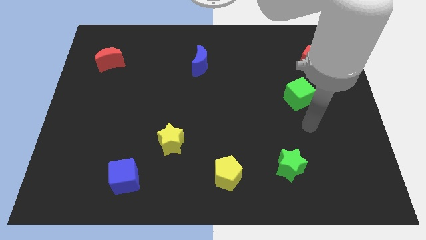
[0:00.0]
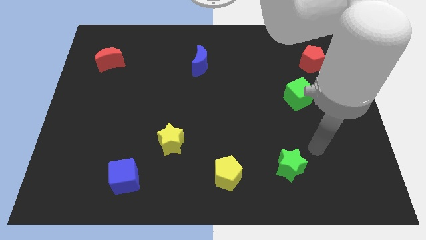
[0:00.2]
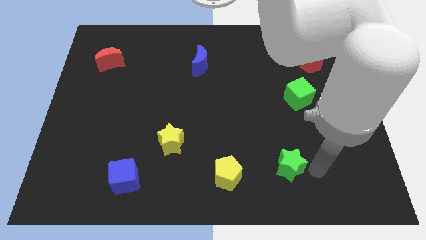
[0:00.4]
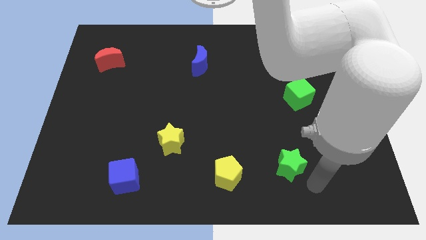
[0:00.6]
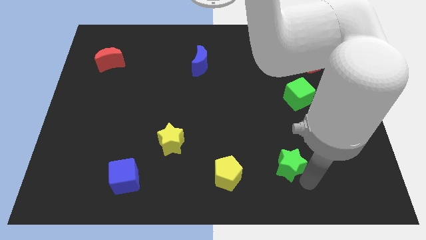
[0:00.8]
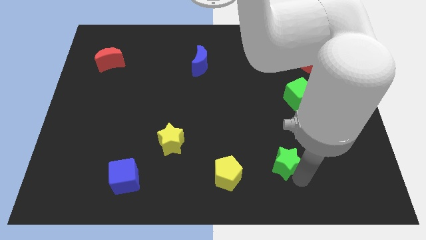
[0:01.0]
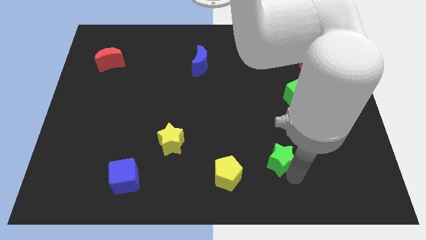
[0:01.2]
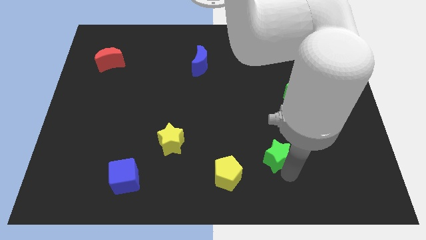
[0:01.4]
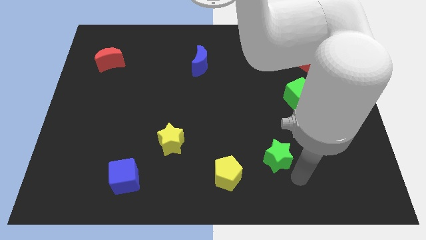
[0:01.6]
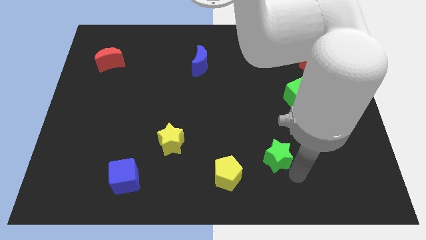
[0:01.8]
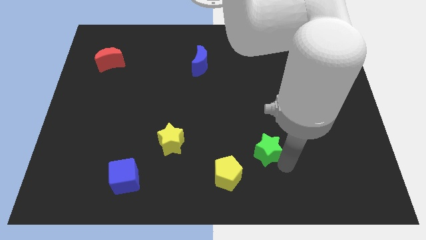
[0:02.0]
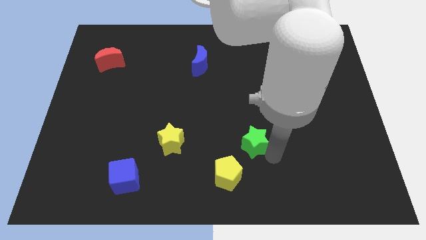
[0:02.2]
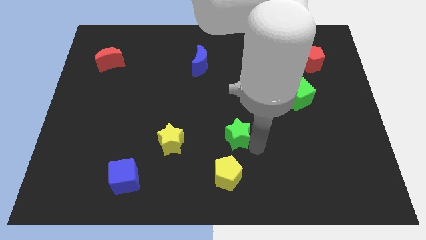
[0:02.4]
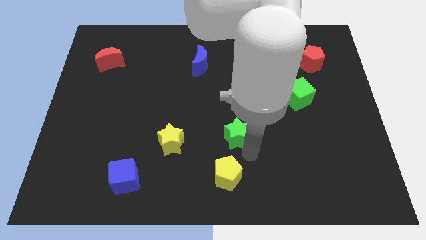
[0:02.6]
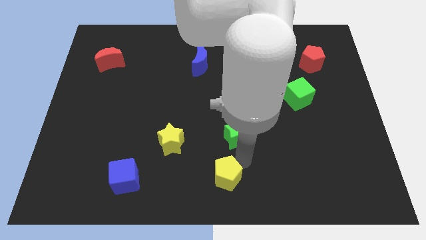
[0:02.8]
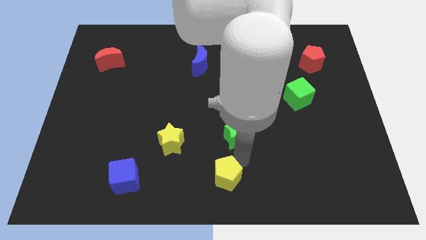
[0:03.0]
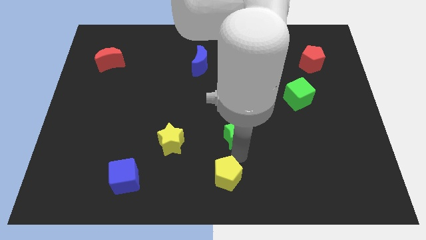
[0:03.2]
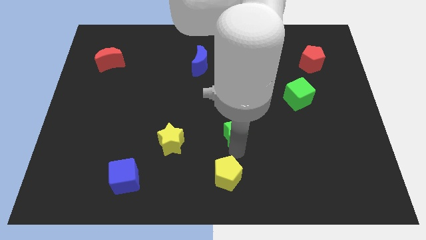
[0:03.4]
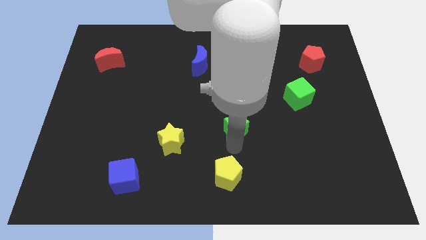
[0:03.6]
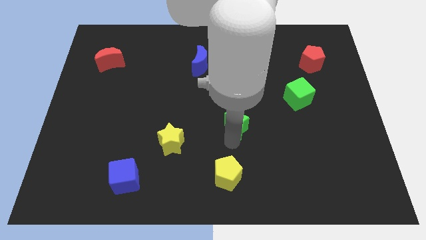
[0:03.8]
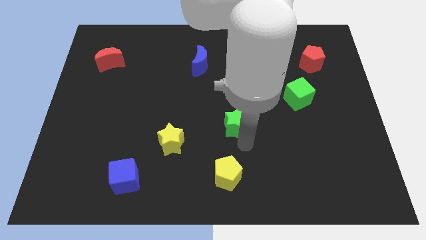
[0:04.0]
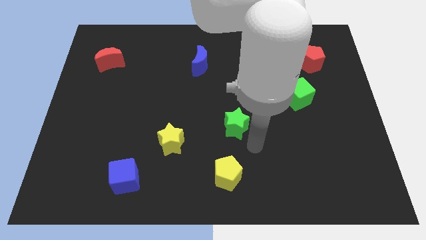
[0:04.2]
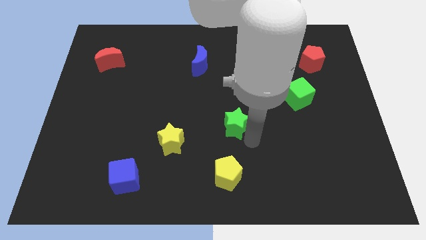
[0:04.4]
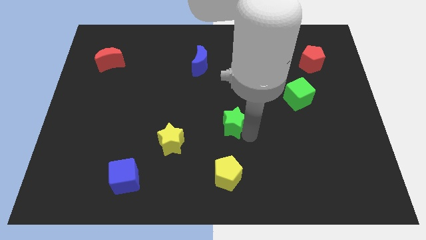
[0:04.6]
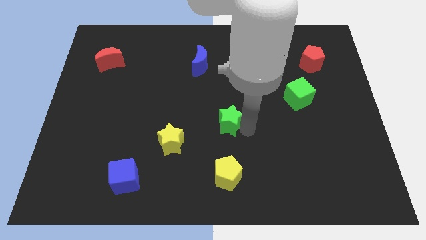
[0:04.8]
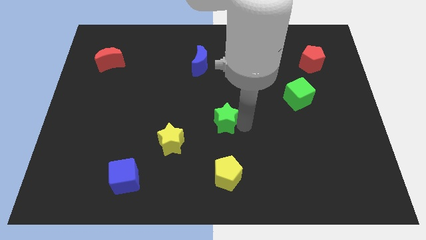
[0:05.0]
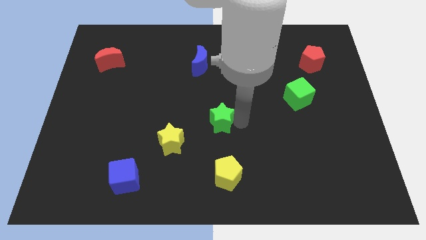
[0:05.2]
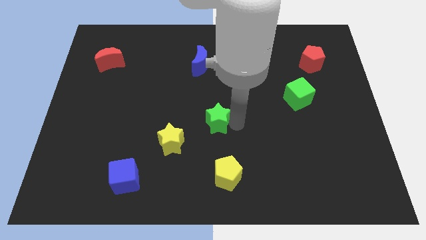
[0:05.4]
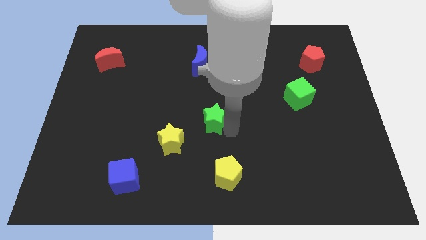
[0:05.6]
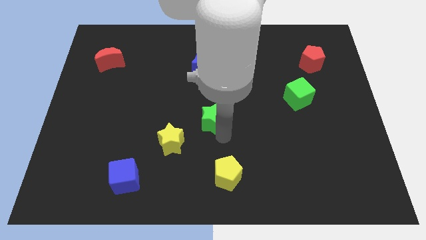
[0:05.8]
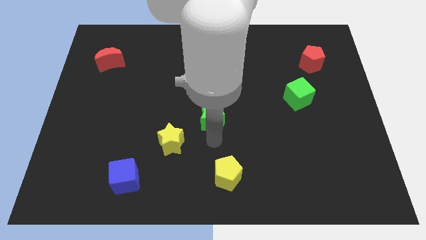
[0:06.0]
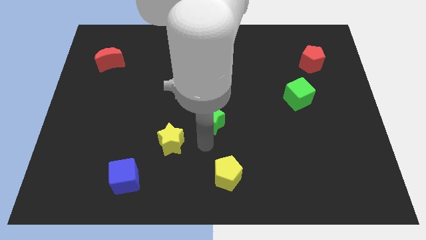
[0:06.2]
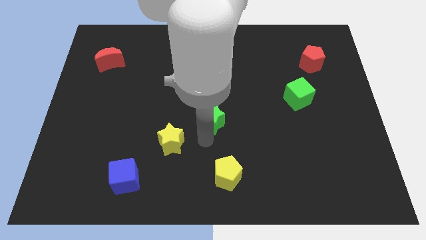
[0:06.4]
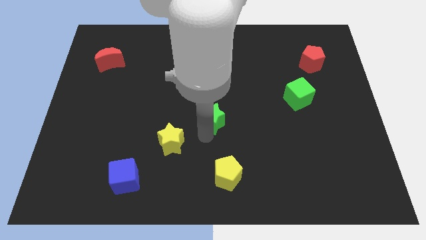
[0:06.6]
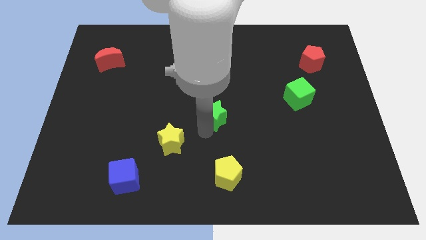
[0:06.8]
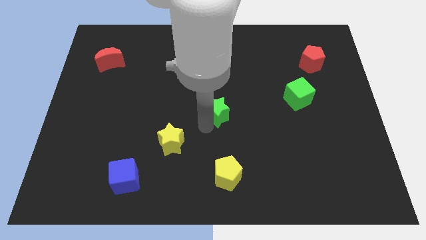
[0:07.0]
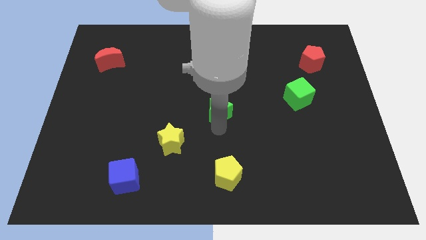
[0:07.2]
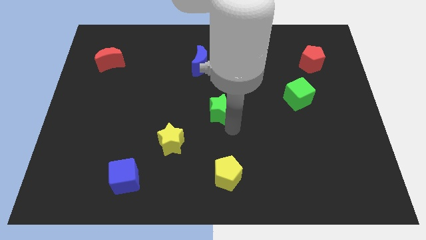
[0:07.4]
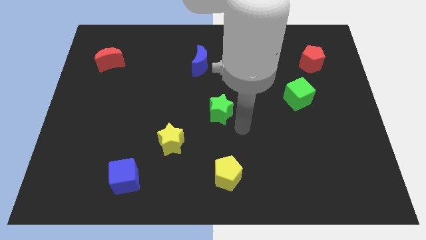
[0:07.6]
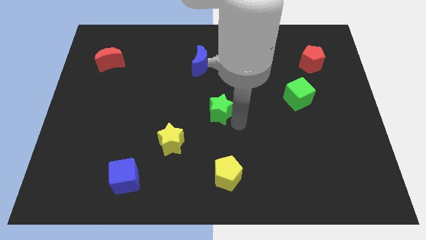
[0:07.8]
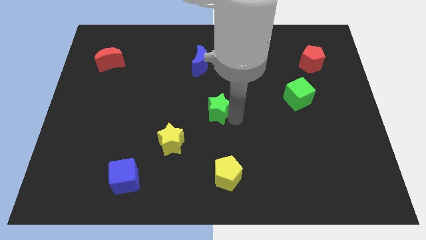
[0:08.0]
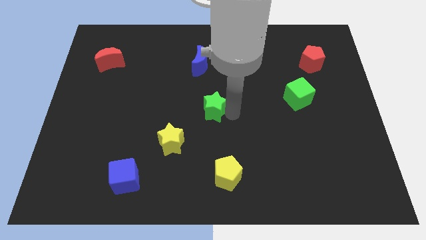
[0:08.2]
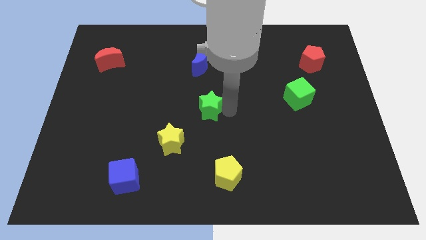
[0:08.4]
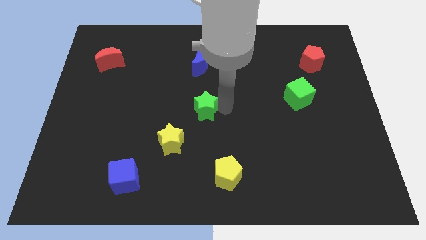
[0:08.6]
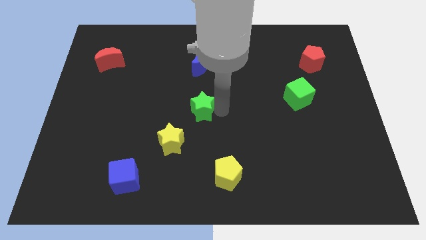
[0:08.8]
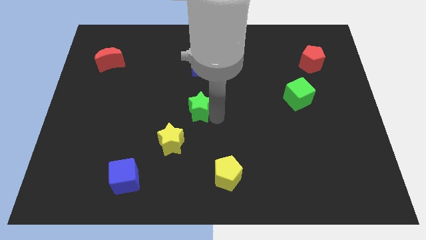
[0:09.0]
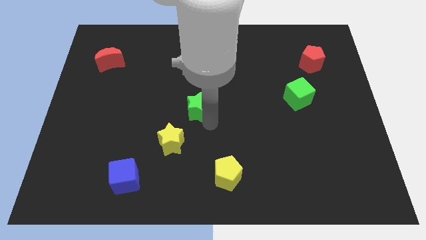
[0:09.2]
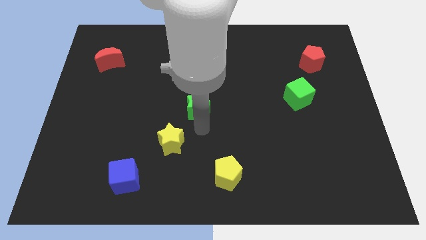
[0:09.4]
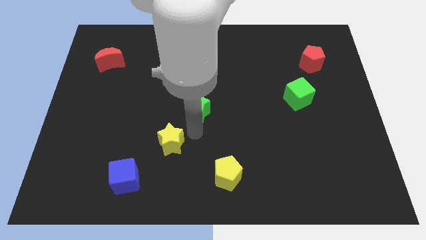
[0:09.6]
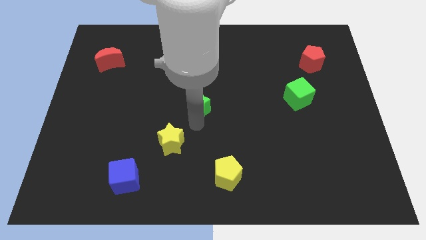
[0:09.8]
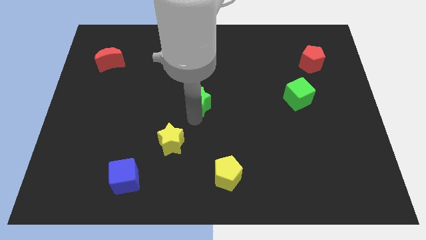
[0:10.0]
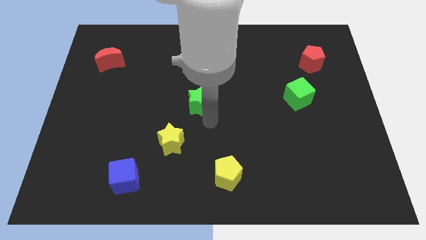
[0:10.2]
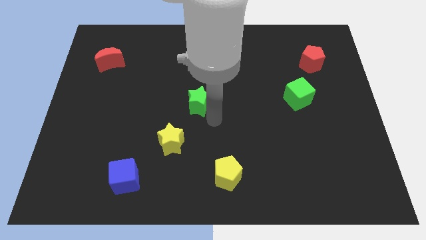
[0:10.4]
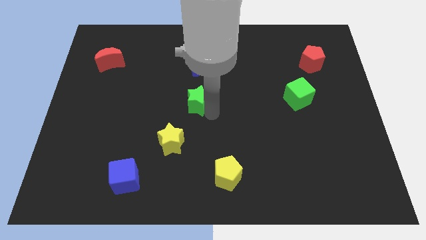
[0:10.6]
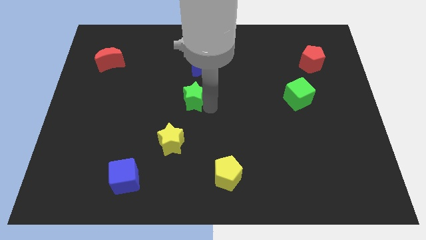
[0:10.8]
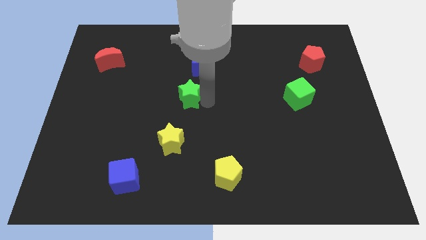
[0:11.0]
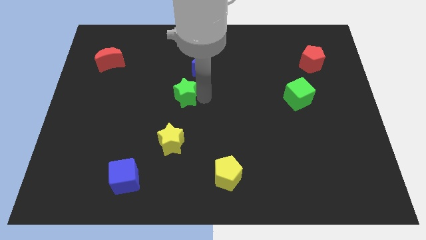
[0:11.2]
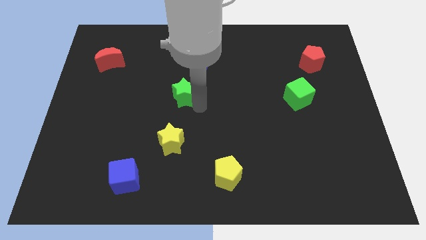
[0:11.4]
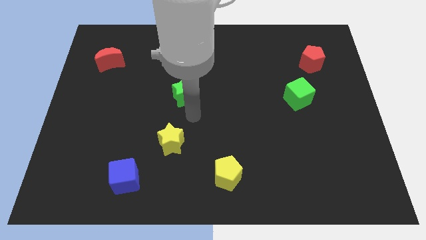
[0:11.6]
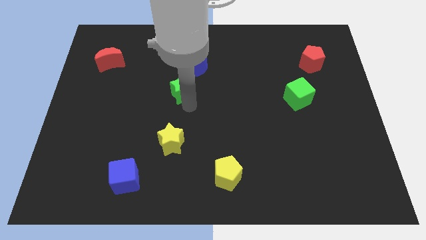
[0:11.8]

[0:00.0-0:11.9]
push the green star diagonally down and to the left of the blue moon

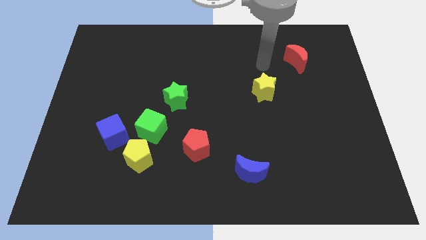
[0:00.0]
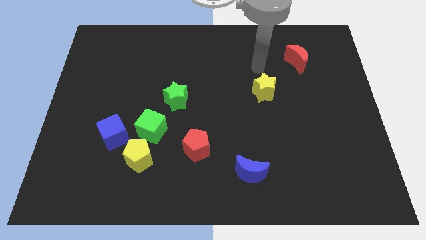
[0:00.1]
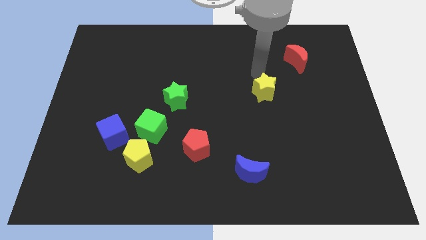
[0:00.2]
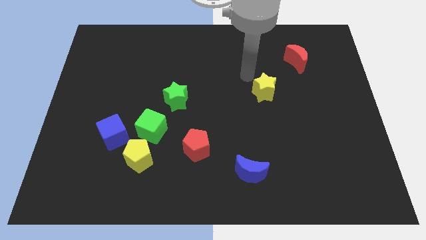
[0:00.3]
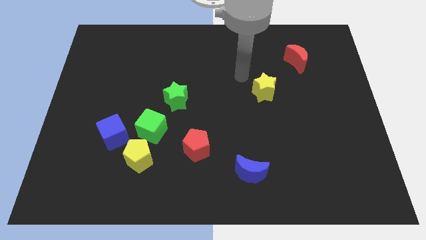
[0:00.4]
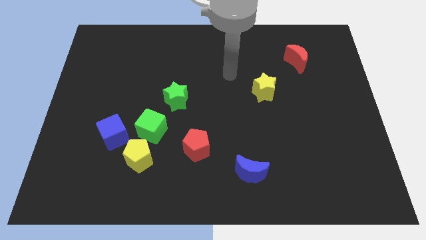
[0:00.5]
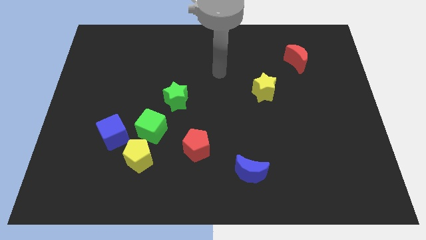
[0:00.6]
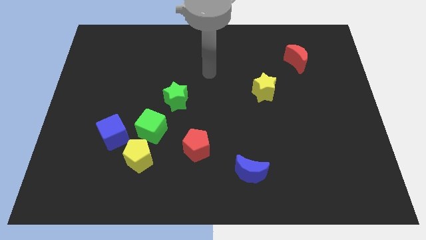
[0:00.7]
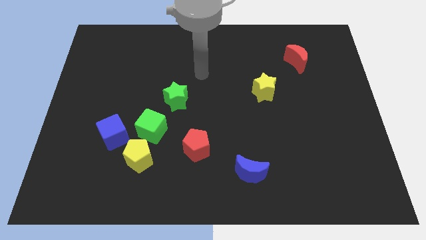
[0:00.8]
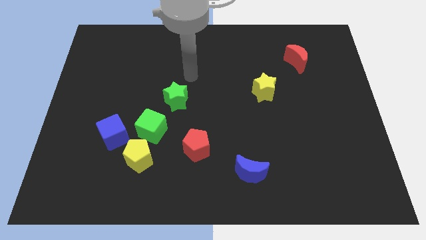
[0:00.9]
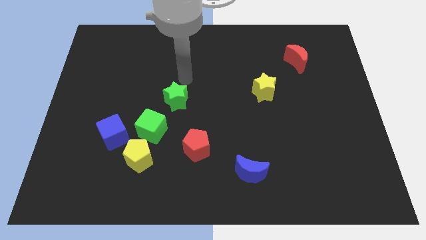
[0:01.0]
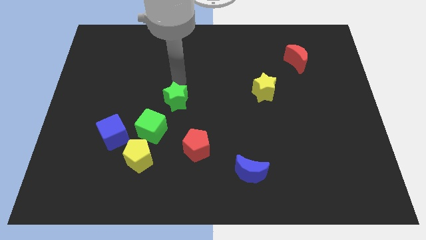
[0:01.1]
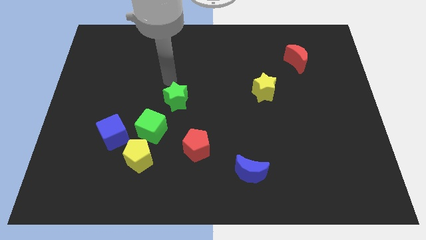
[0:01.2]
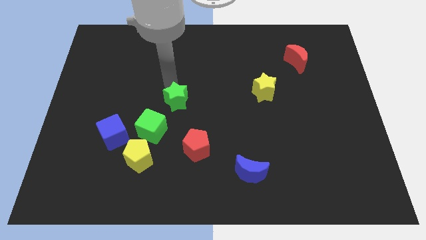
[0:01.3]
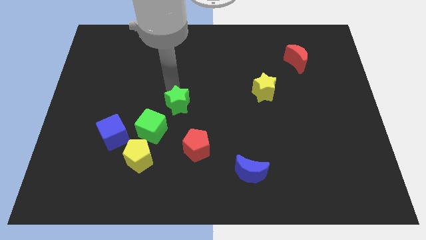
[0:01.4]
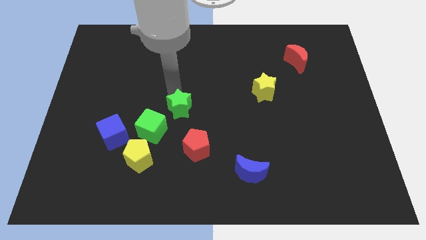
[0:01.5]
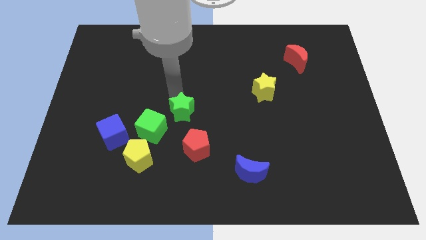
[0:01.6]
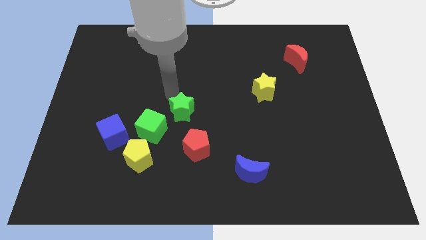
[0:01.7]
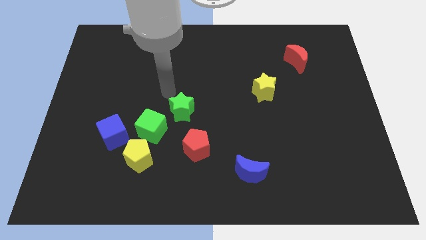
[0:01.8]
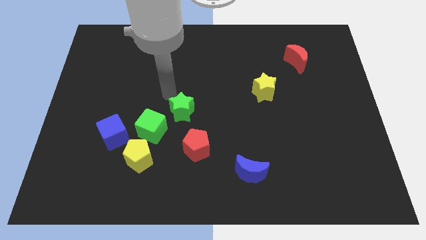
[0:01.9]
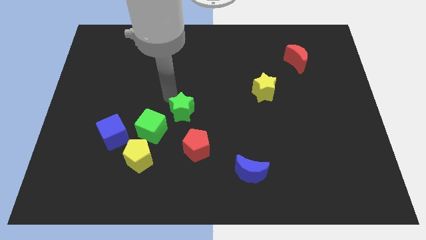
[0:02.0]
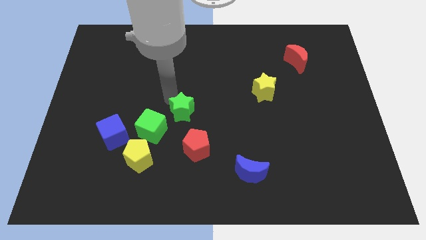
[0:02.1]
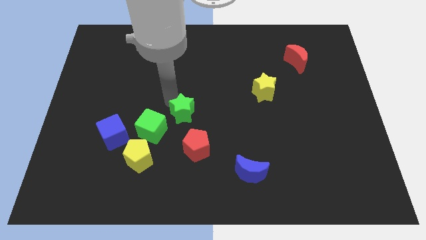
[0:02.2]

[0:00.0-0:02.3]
put the green star to the right side of the green cube
